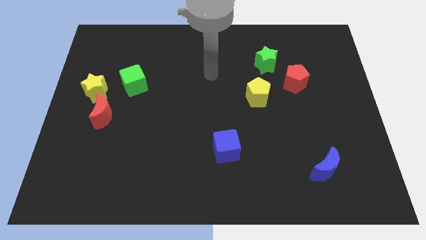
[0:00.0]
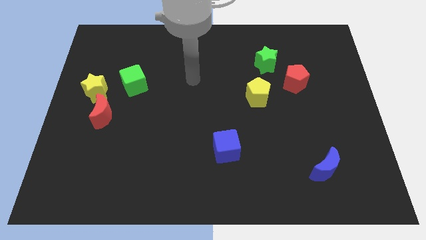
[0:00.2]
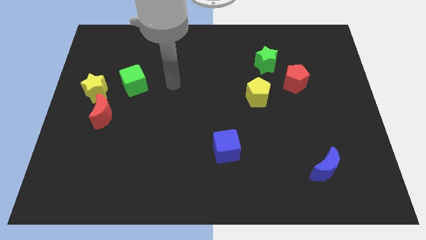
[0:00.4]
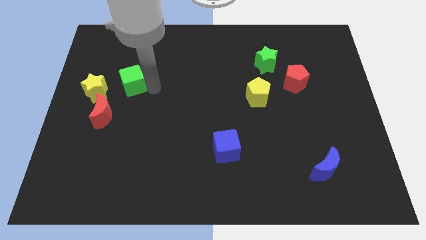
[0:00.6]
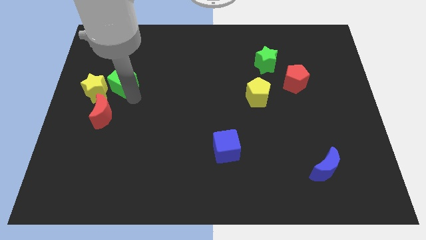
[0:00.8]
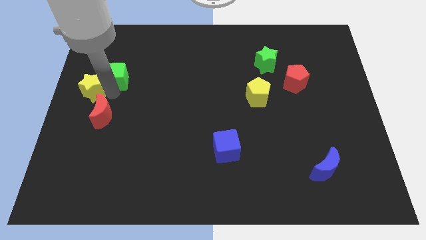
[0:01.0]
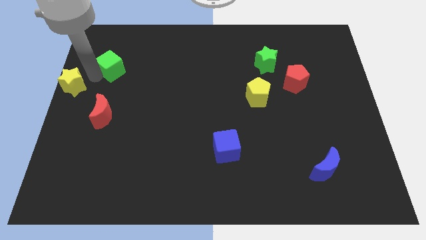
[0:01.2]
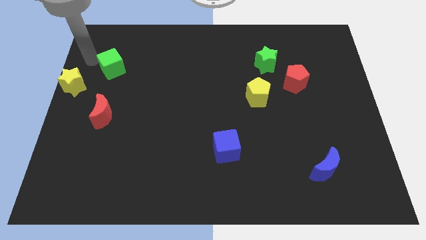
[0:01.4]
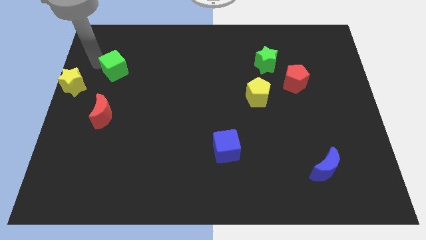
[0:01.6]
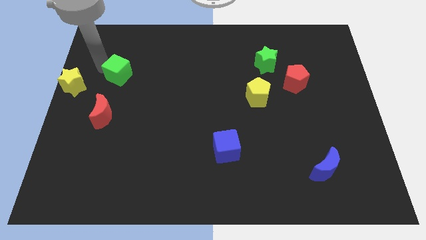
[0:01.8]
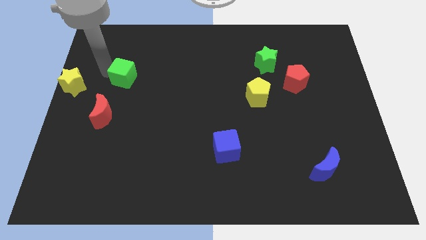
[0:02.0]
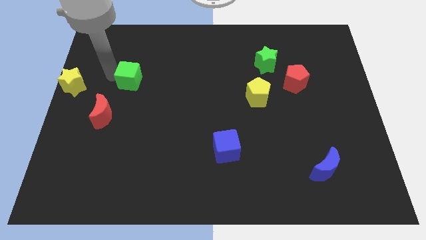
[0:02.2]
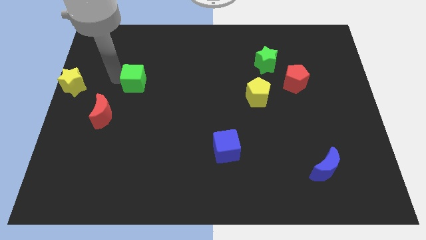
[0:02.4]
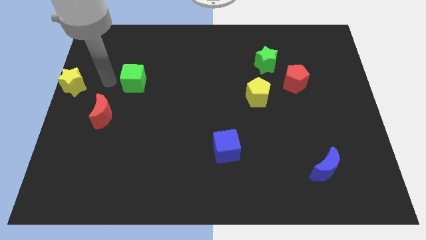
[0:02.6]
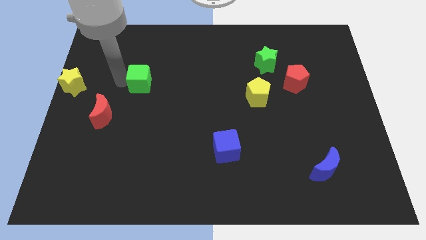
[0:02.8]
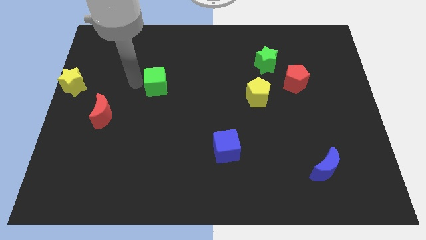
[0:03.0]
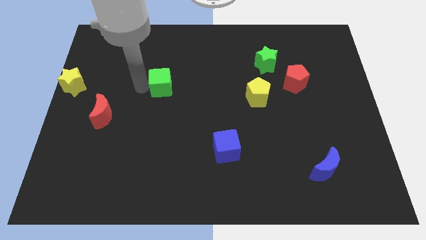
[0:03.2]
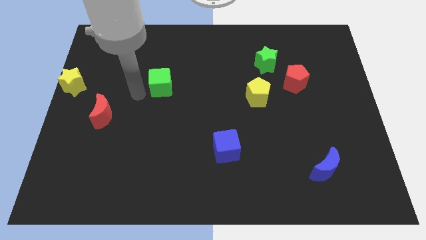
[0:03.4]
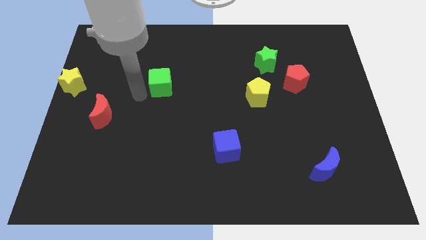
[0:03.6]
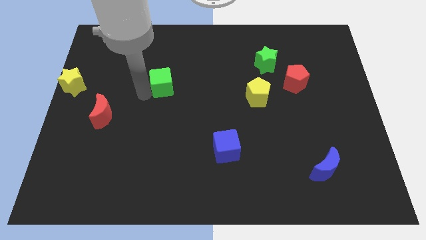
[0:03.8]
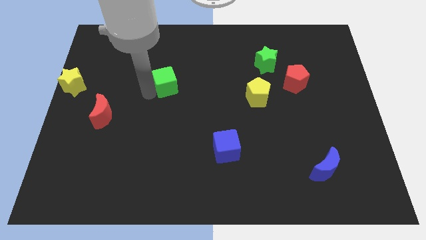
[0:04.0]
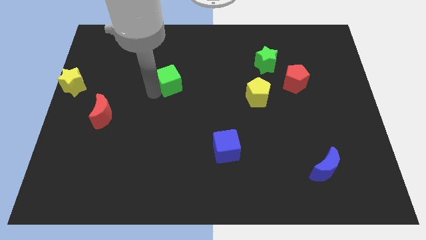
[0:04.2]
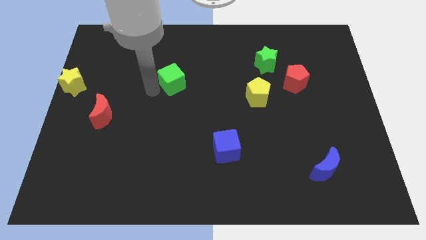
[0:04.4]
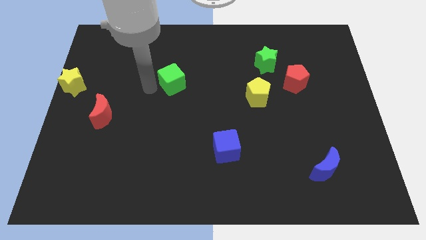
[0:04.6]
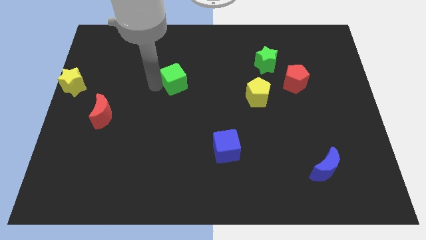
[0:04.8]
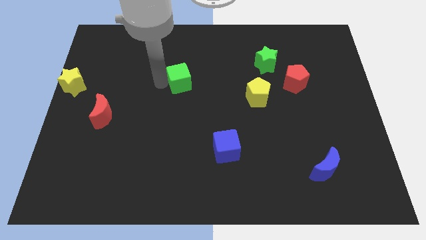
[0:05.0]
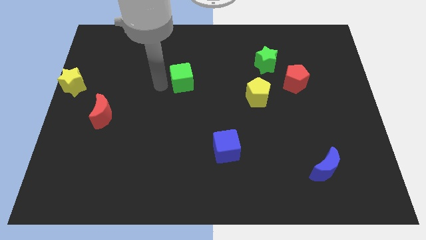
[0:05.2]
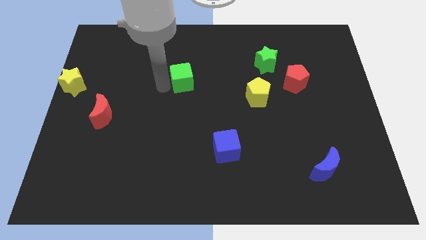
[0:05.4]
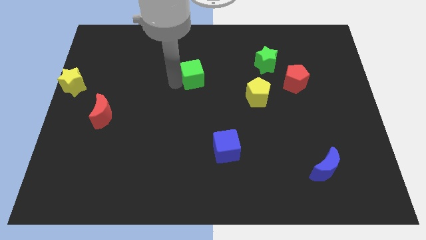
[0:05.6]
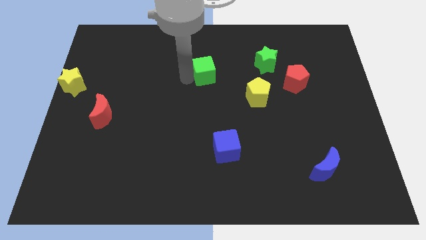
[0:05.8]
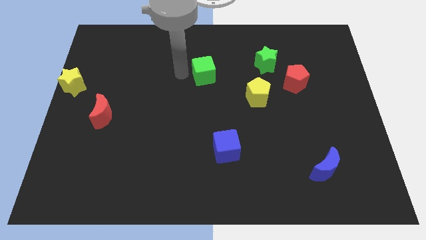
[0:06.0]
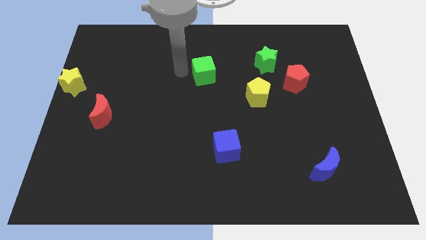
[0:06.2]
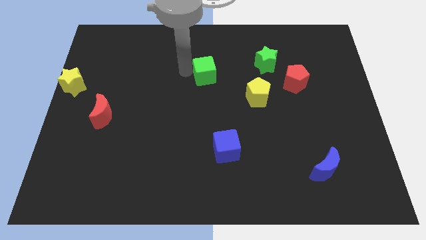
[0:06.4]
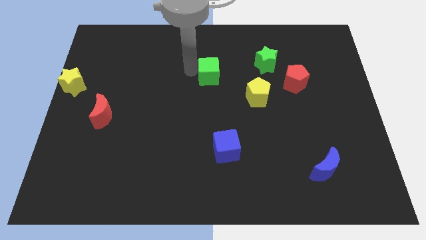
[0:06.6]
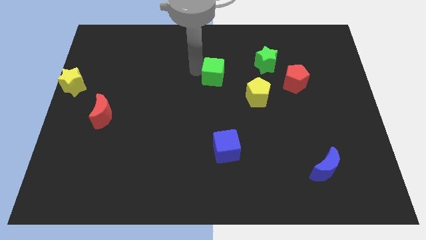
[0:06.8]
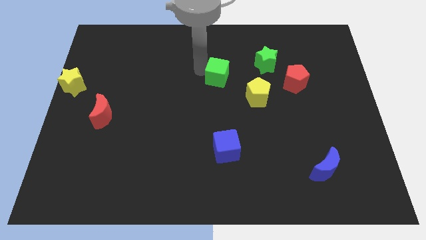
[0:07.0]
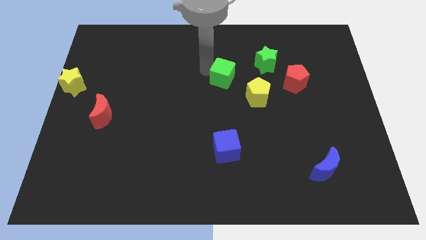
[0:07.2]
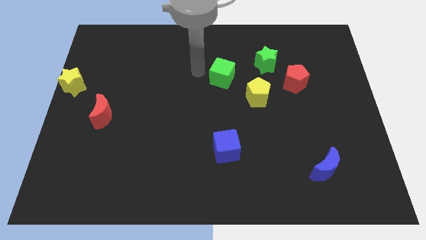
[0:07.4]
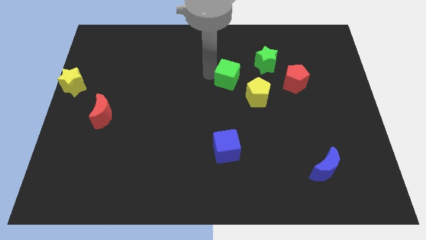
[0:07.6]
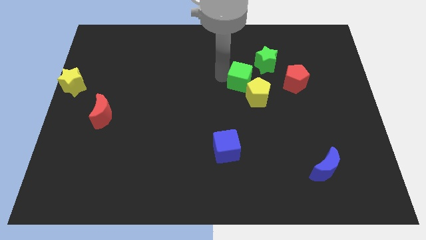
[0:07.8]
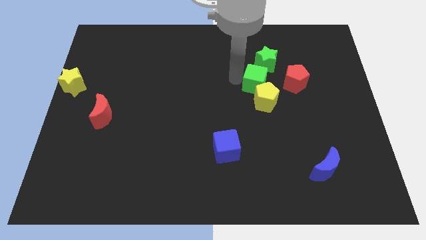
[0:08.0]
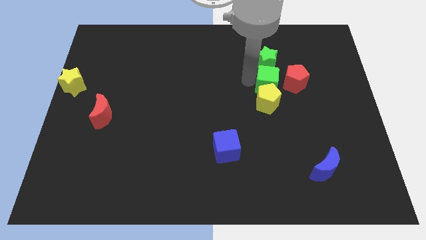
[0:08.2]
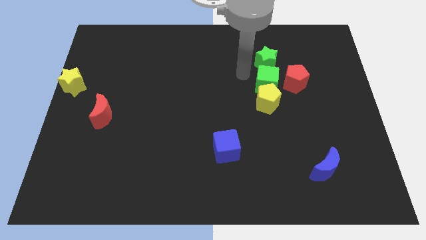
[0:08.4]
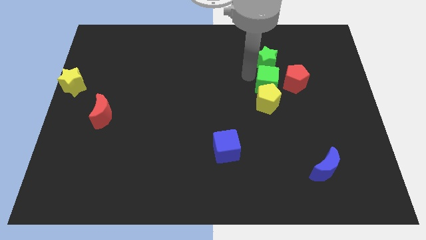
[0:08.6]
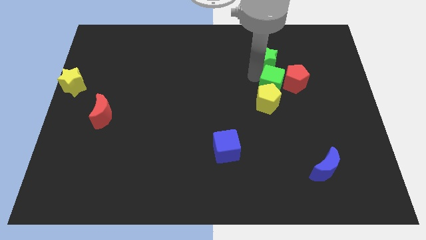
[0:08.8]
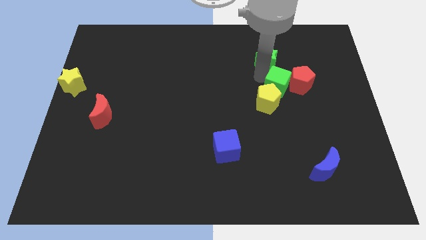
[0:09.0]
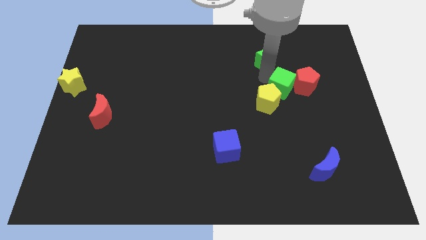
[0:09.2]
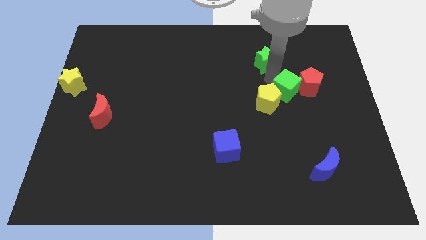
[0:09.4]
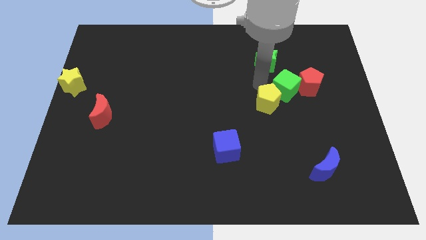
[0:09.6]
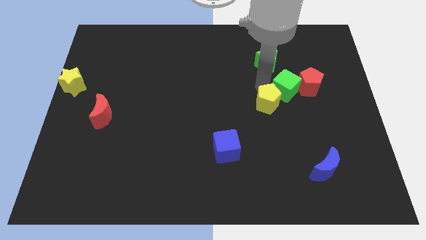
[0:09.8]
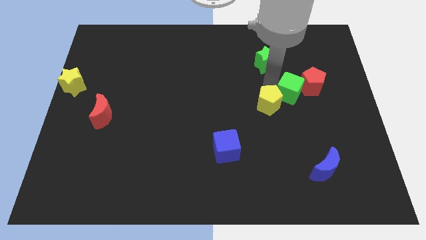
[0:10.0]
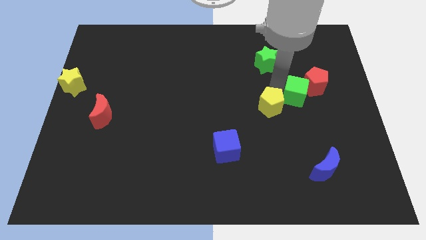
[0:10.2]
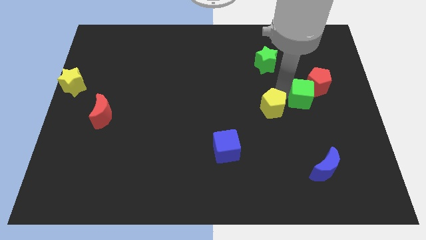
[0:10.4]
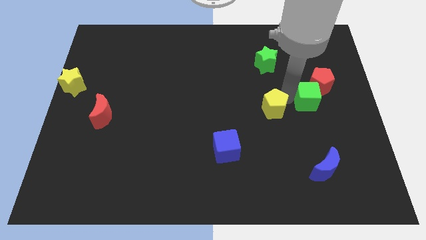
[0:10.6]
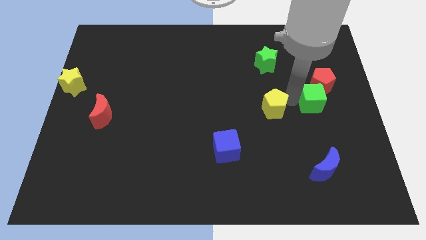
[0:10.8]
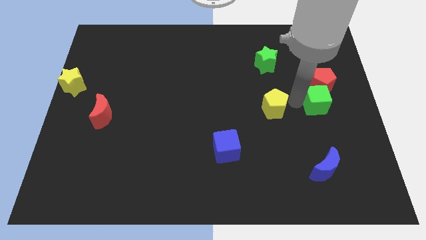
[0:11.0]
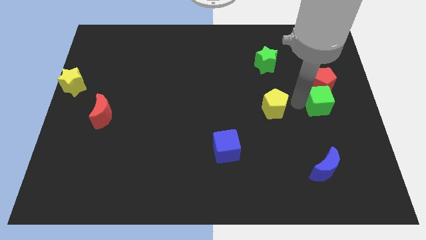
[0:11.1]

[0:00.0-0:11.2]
put the green cube to the right side of the board
